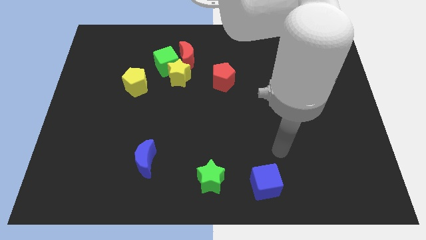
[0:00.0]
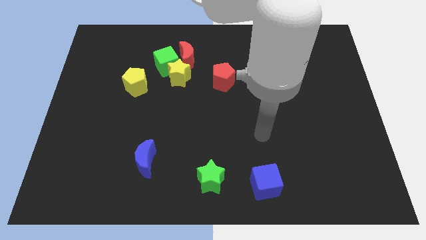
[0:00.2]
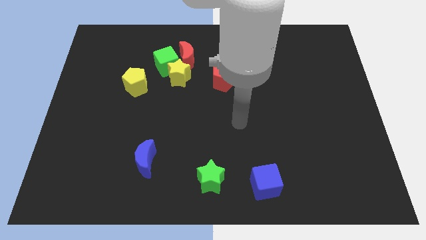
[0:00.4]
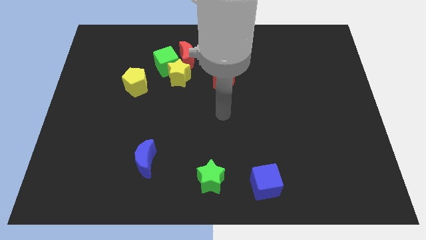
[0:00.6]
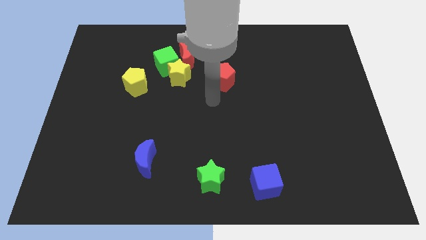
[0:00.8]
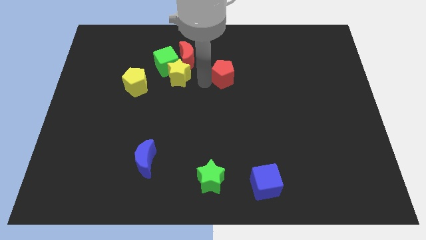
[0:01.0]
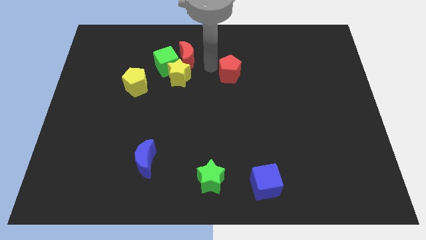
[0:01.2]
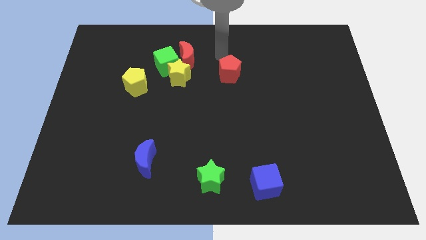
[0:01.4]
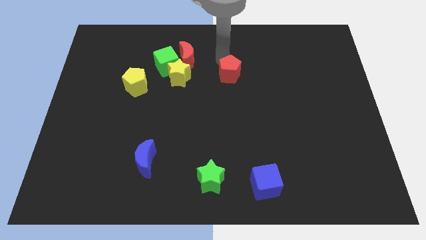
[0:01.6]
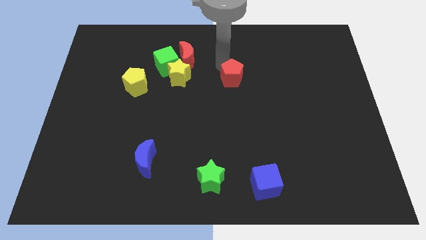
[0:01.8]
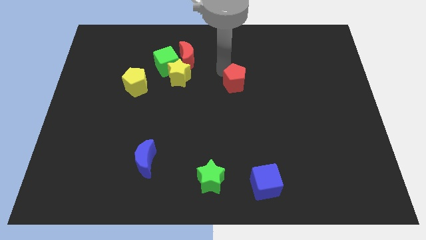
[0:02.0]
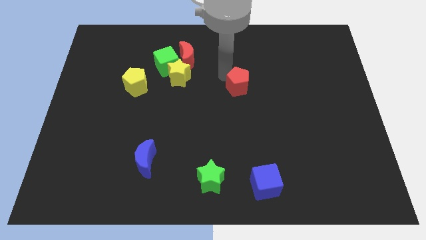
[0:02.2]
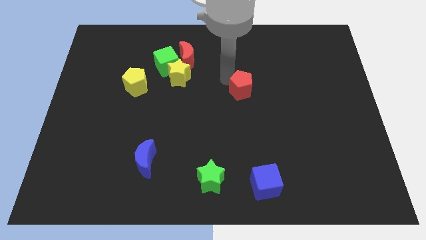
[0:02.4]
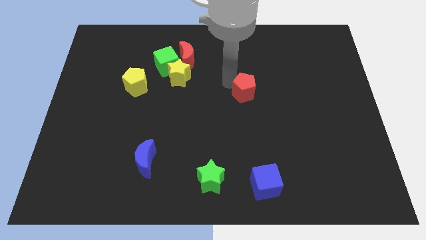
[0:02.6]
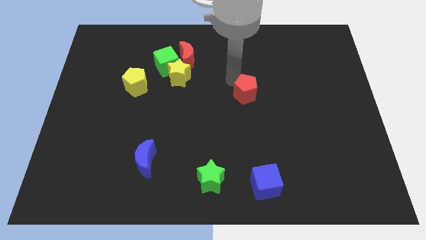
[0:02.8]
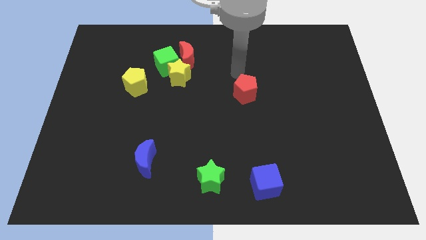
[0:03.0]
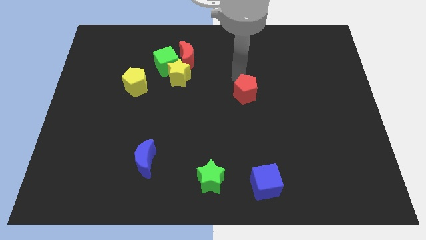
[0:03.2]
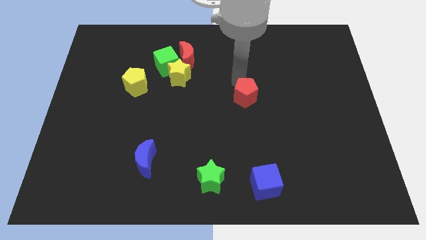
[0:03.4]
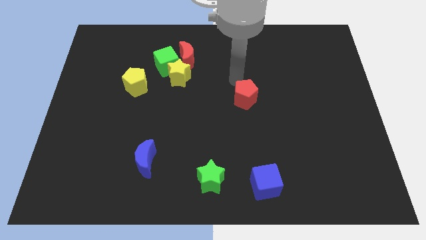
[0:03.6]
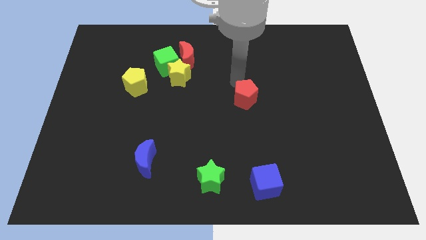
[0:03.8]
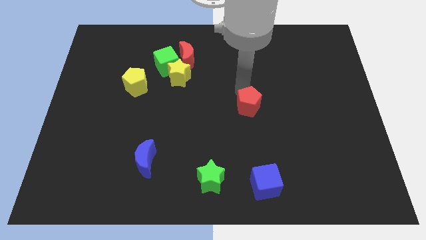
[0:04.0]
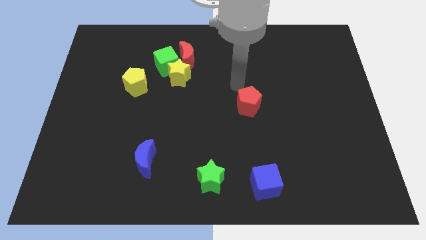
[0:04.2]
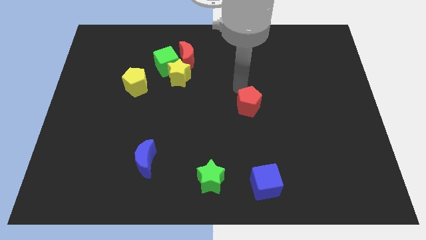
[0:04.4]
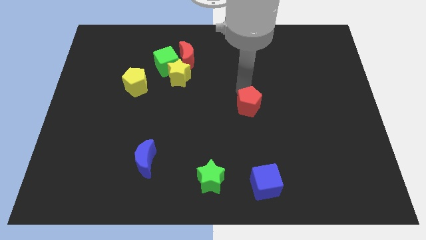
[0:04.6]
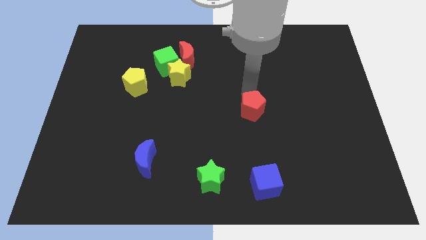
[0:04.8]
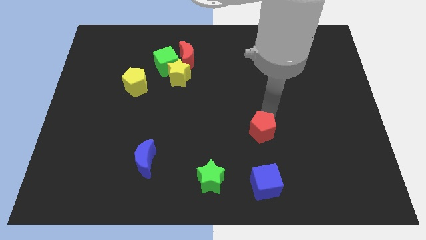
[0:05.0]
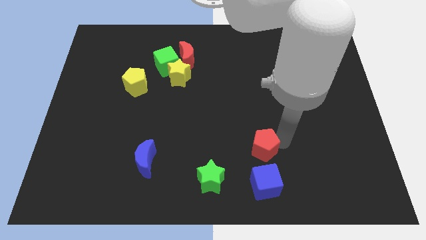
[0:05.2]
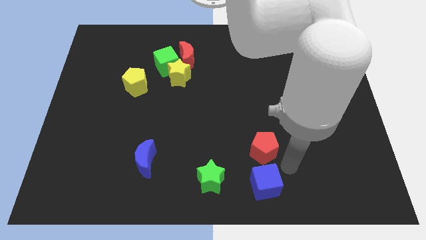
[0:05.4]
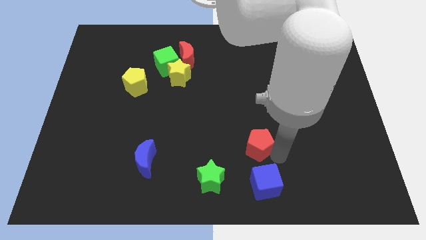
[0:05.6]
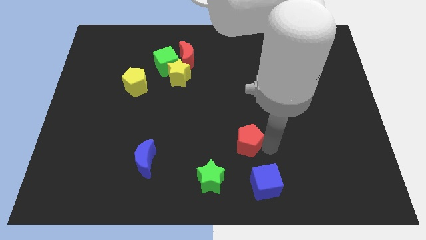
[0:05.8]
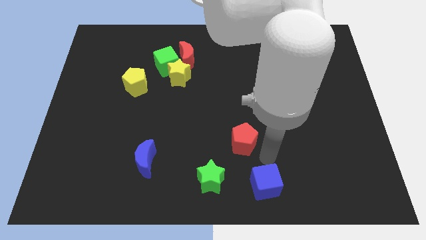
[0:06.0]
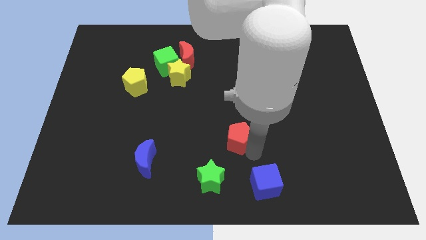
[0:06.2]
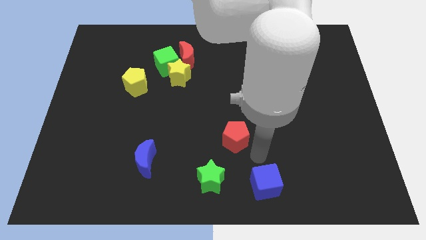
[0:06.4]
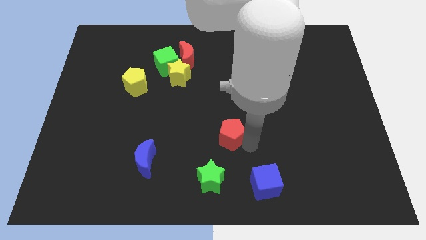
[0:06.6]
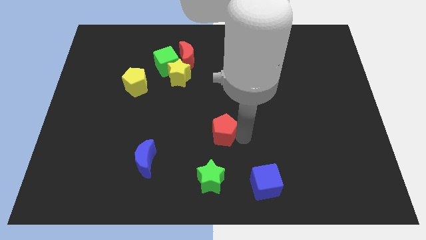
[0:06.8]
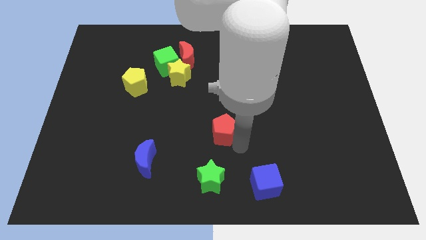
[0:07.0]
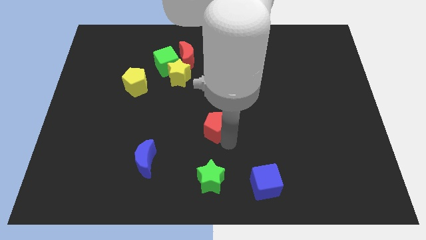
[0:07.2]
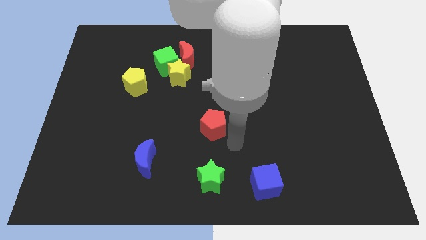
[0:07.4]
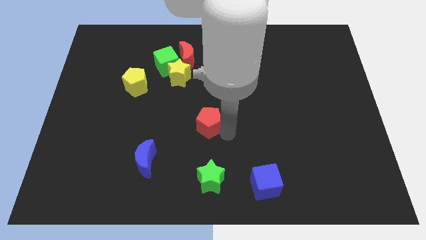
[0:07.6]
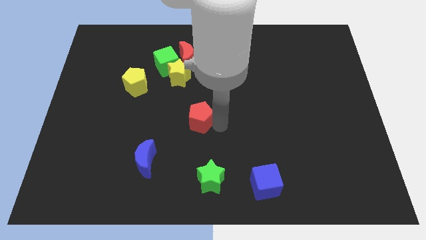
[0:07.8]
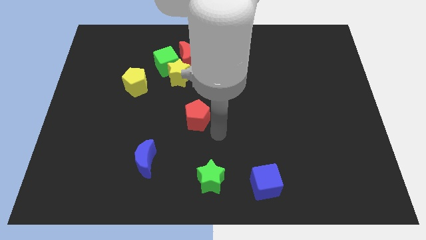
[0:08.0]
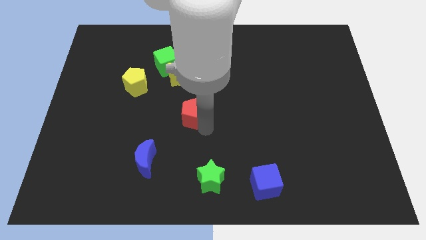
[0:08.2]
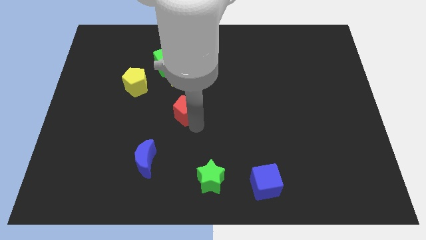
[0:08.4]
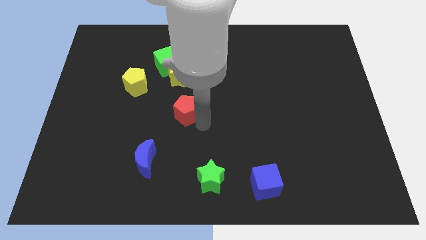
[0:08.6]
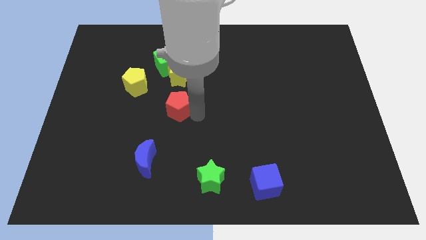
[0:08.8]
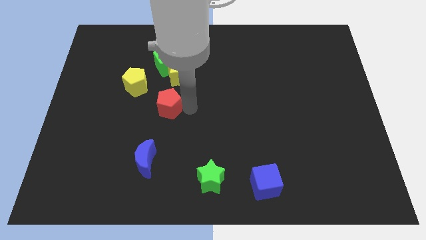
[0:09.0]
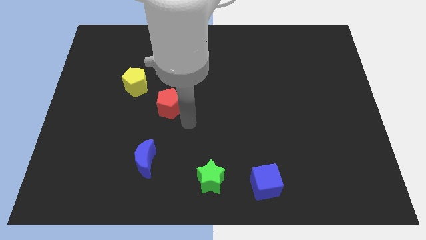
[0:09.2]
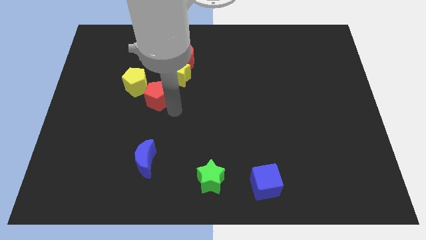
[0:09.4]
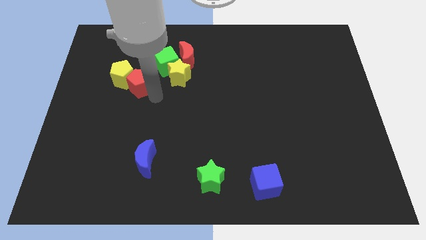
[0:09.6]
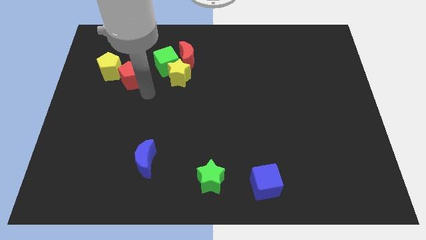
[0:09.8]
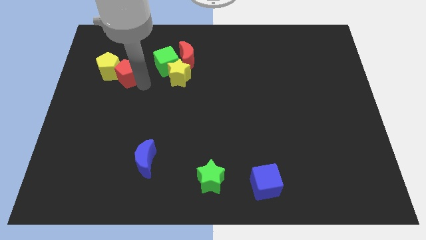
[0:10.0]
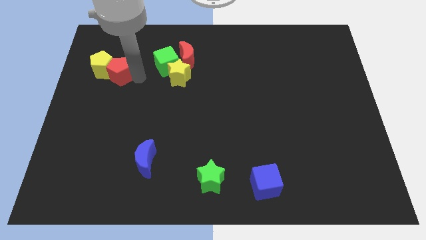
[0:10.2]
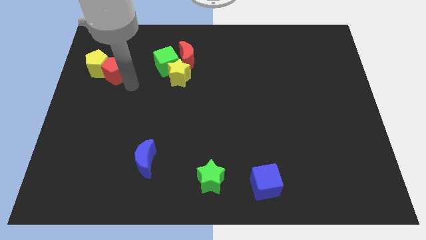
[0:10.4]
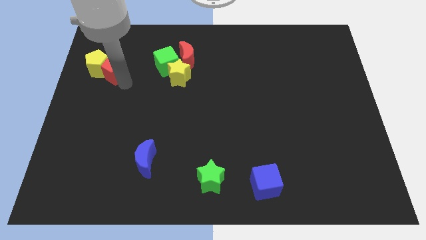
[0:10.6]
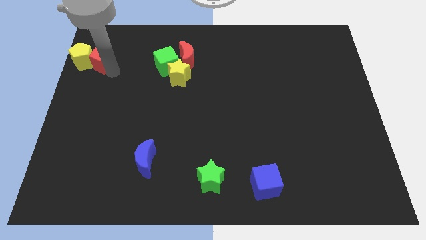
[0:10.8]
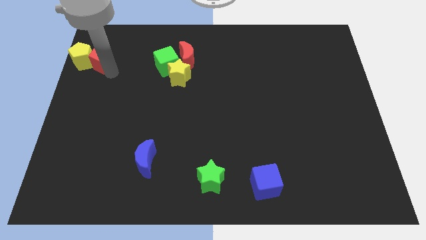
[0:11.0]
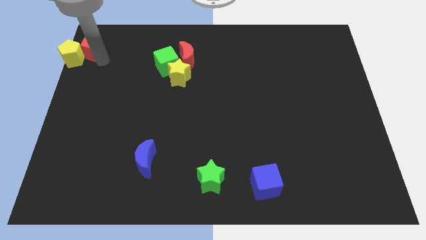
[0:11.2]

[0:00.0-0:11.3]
put the red pentagon to the top left

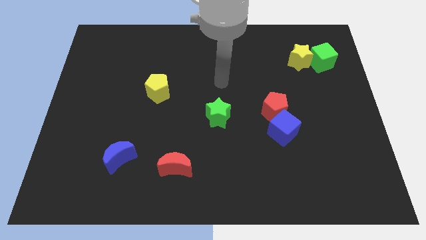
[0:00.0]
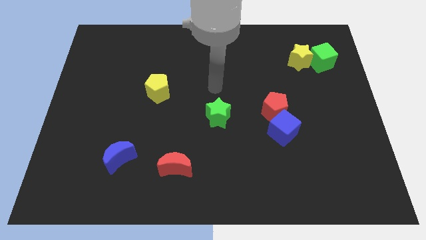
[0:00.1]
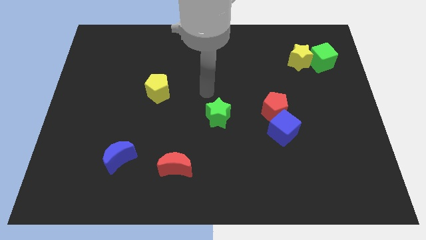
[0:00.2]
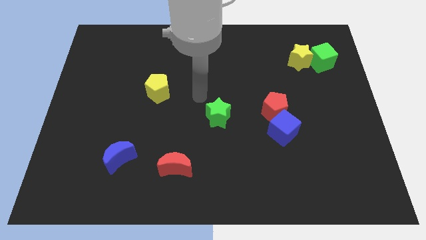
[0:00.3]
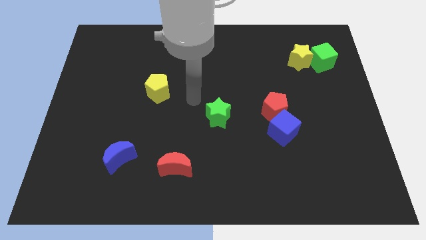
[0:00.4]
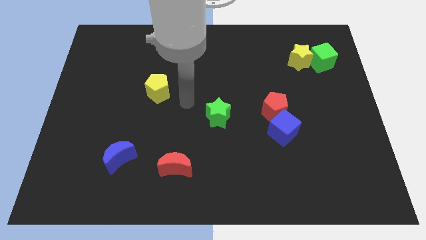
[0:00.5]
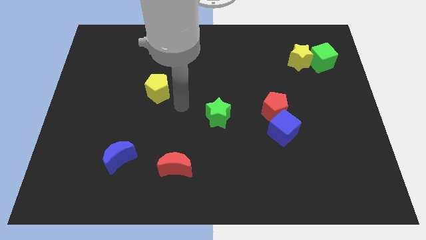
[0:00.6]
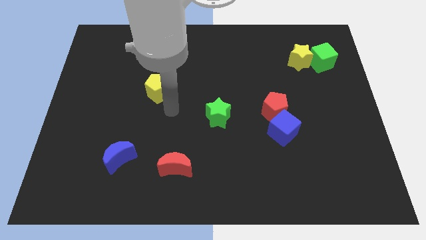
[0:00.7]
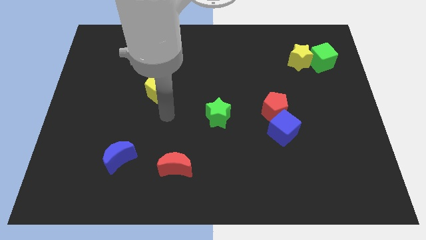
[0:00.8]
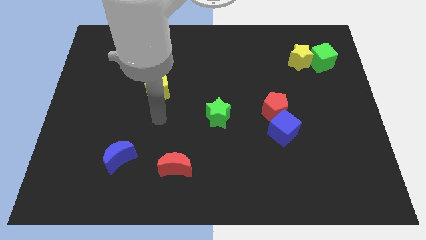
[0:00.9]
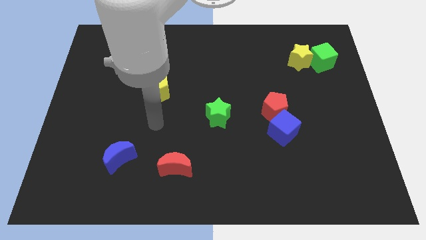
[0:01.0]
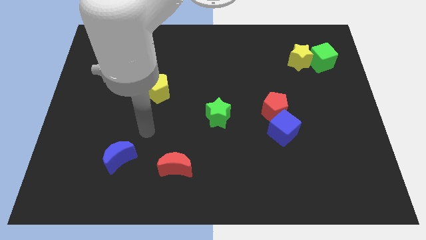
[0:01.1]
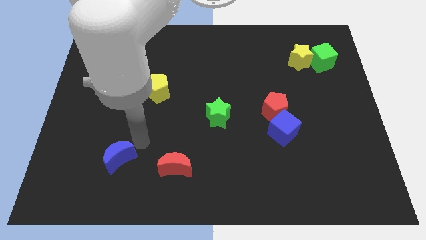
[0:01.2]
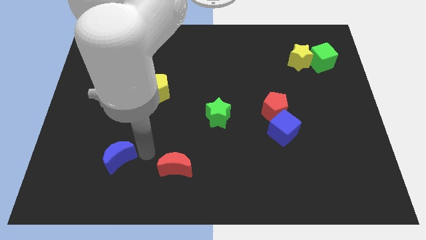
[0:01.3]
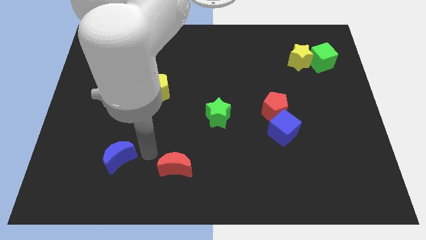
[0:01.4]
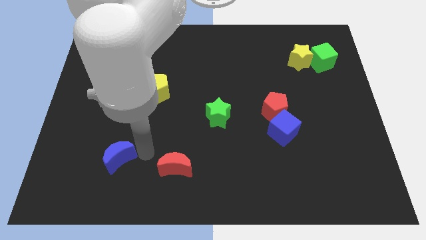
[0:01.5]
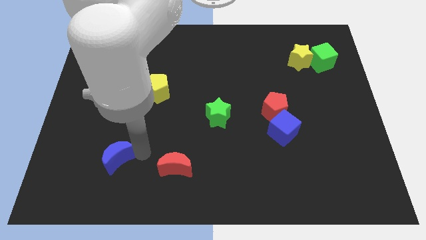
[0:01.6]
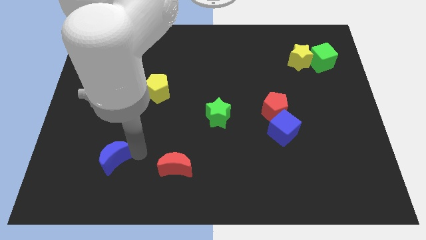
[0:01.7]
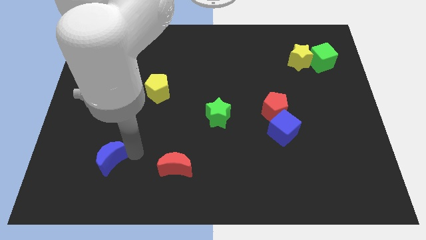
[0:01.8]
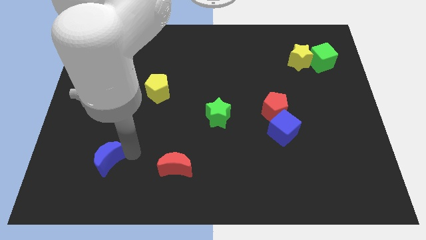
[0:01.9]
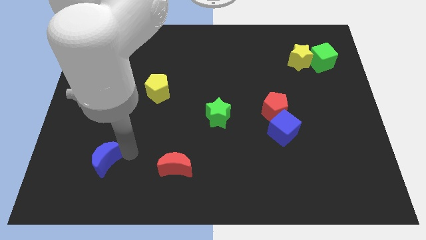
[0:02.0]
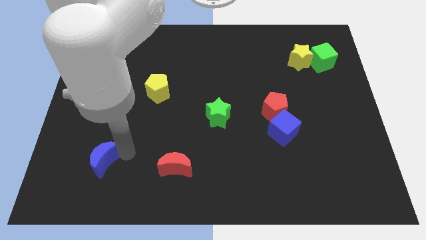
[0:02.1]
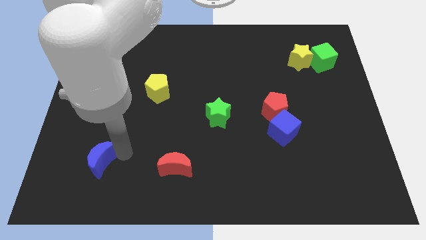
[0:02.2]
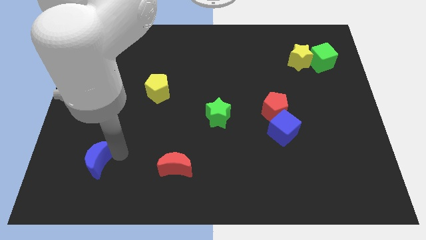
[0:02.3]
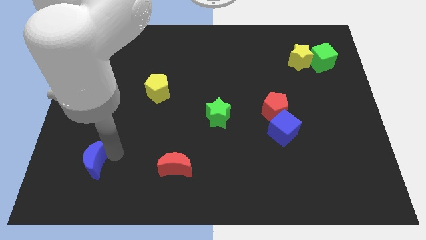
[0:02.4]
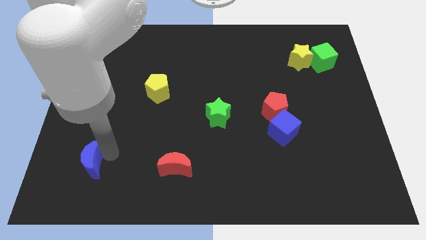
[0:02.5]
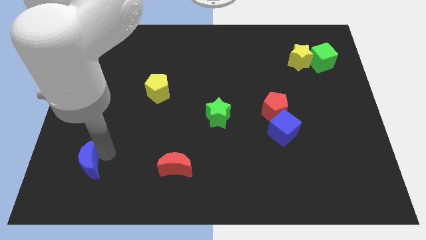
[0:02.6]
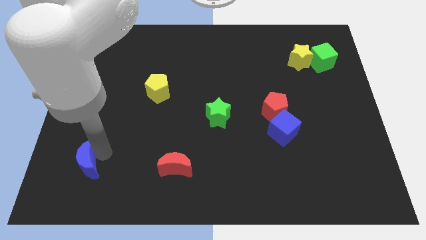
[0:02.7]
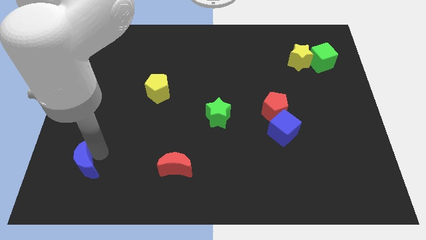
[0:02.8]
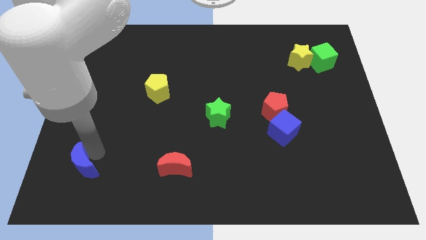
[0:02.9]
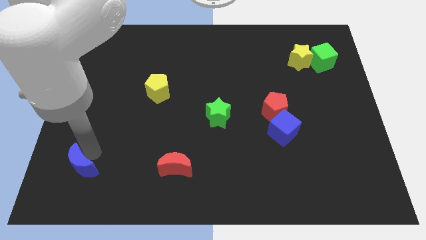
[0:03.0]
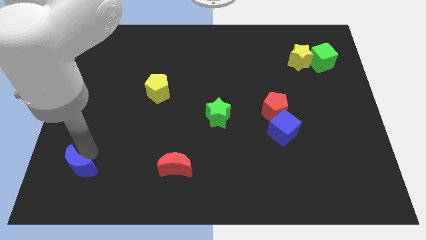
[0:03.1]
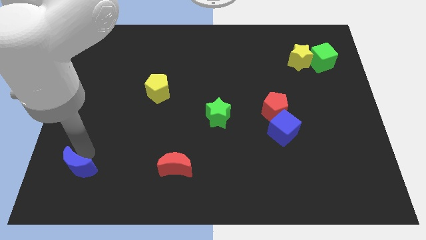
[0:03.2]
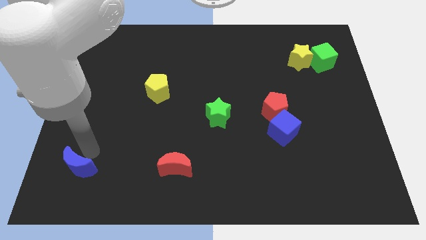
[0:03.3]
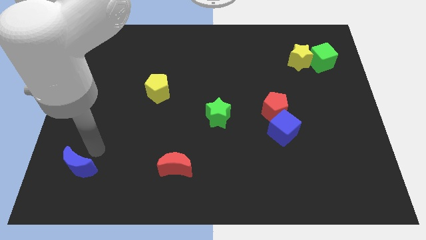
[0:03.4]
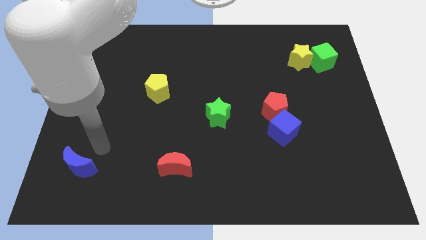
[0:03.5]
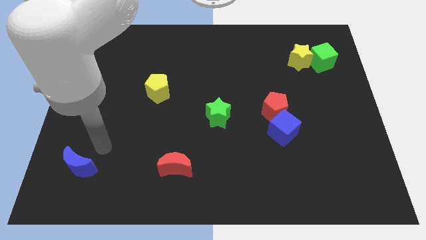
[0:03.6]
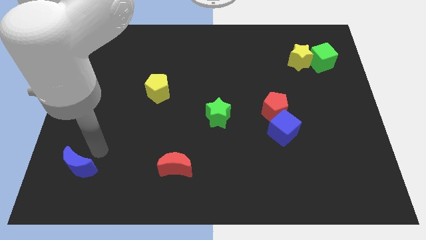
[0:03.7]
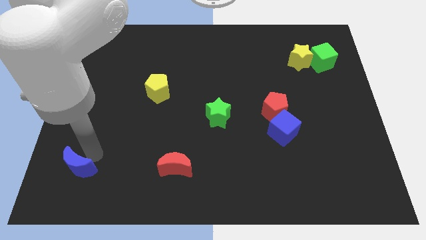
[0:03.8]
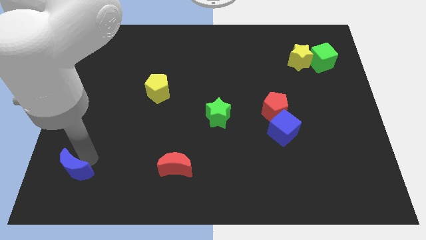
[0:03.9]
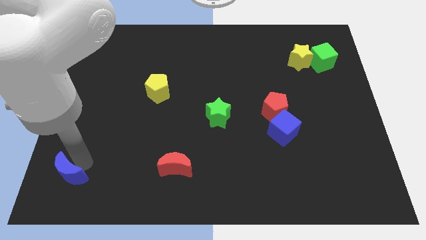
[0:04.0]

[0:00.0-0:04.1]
push the blue moon to the bottom left corner
